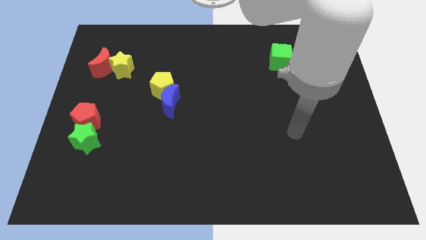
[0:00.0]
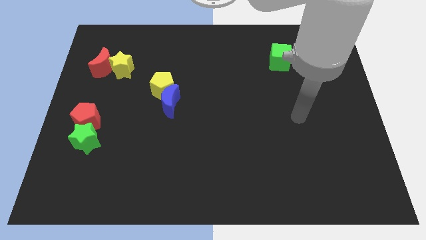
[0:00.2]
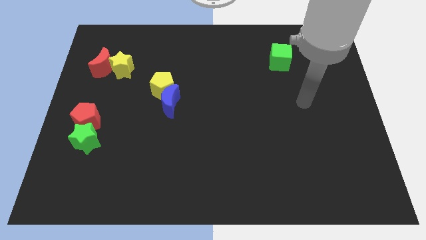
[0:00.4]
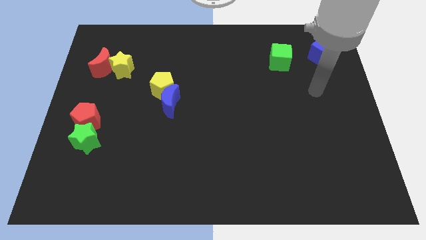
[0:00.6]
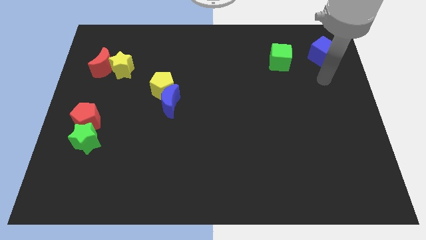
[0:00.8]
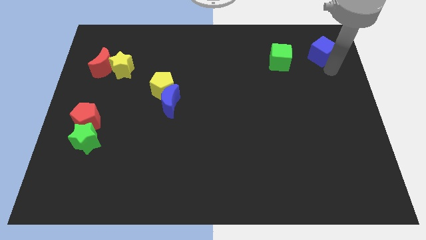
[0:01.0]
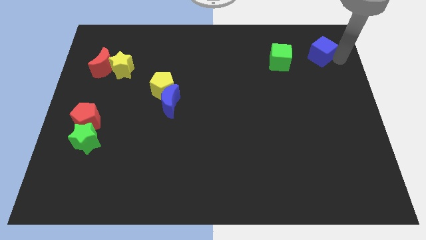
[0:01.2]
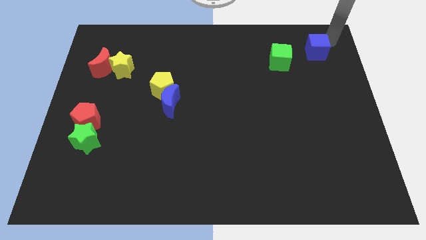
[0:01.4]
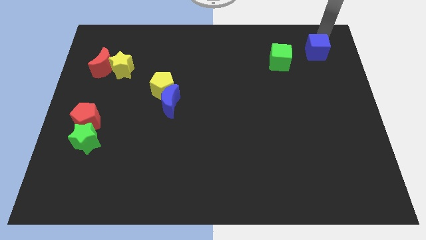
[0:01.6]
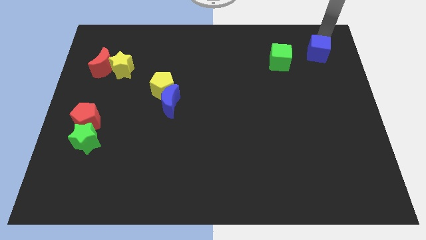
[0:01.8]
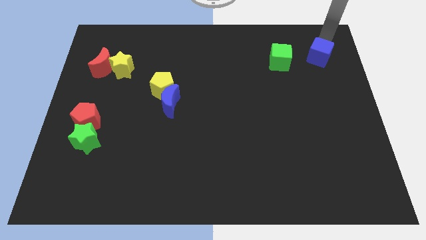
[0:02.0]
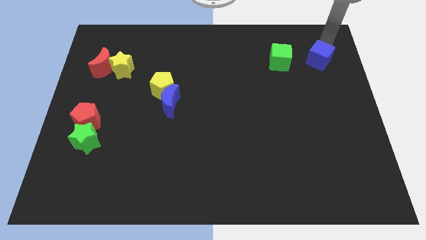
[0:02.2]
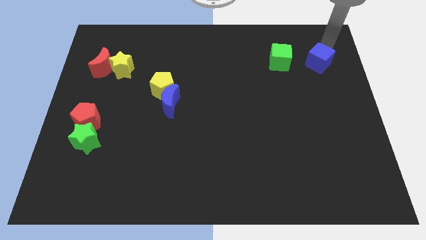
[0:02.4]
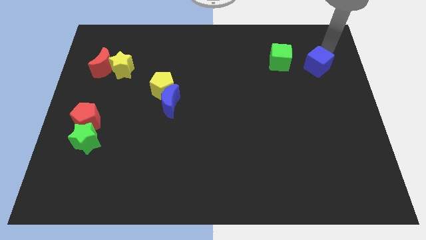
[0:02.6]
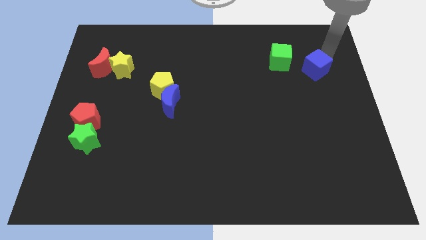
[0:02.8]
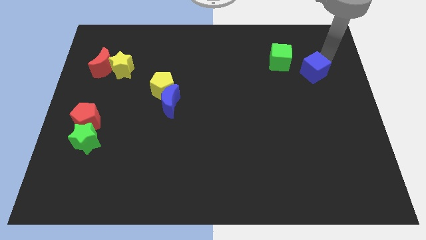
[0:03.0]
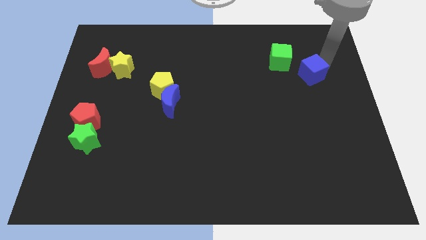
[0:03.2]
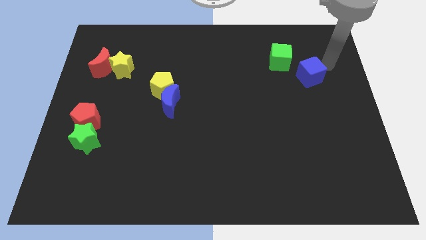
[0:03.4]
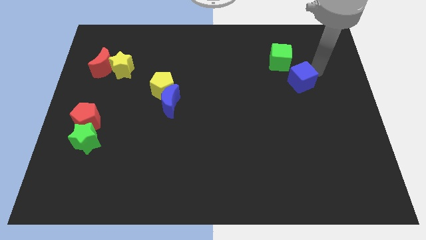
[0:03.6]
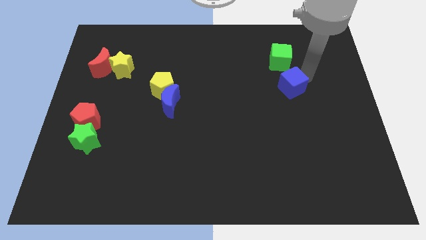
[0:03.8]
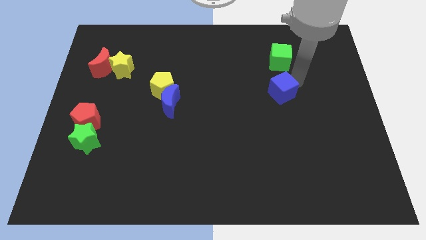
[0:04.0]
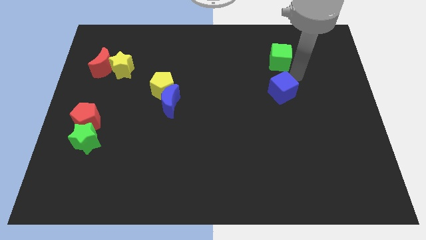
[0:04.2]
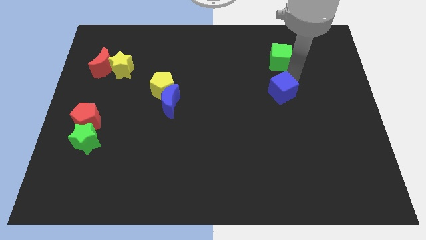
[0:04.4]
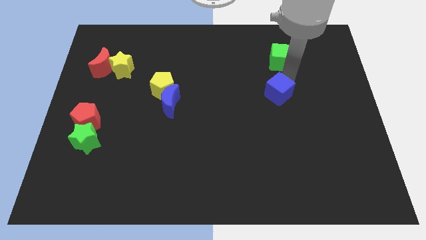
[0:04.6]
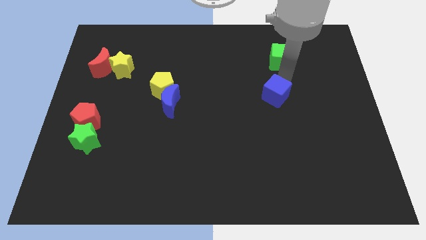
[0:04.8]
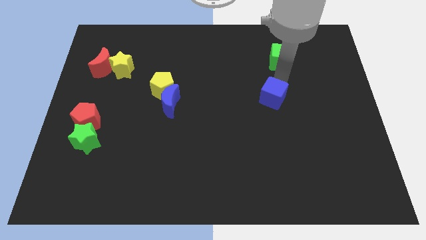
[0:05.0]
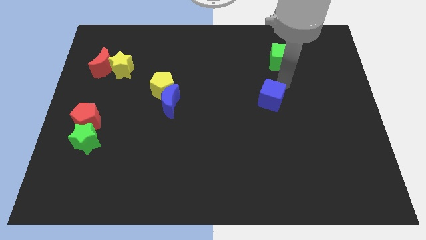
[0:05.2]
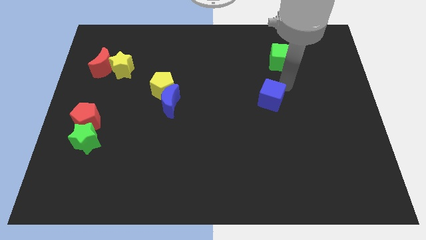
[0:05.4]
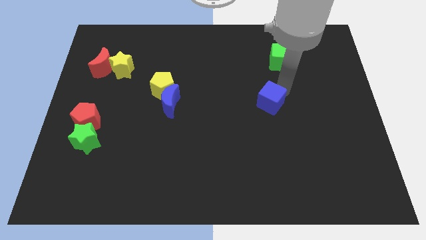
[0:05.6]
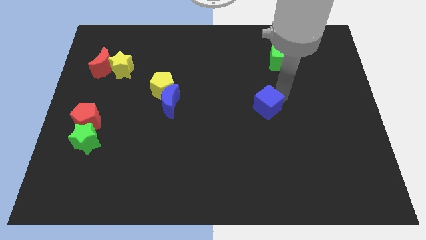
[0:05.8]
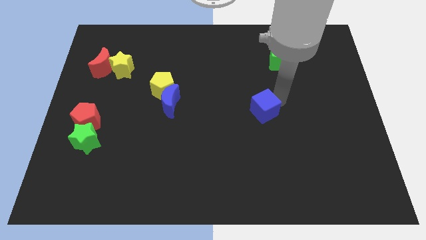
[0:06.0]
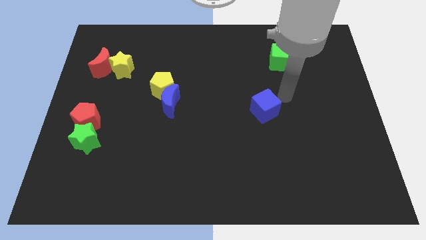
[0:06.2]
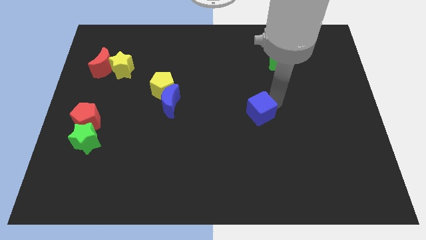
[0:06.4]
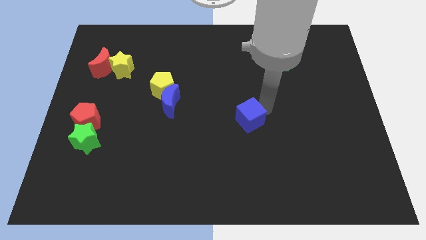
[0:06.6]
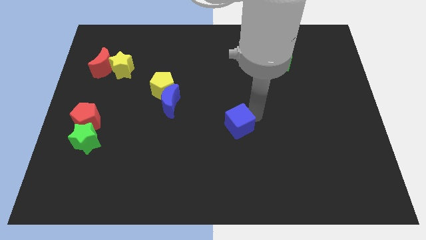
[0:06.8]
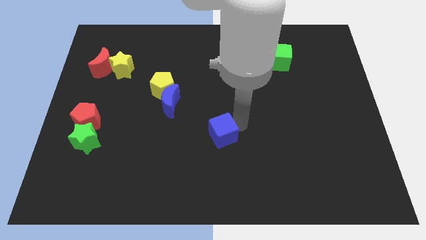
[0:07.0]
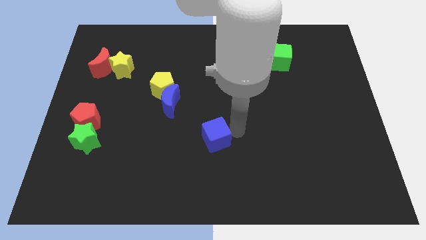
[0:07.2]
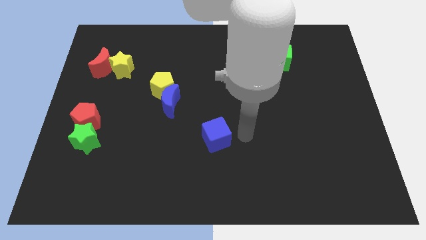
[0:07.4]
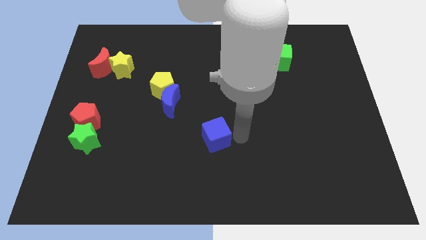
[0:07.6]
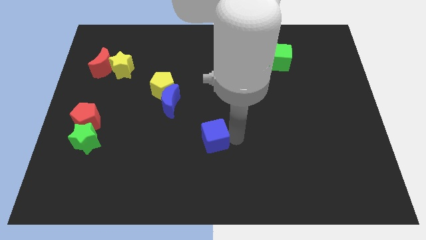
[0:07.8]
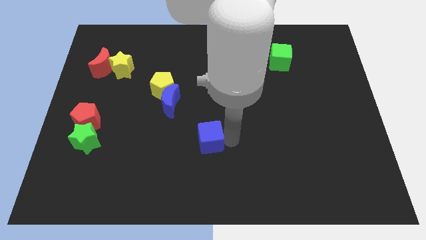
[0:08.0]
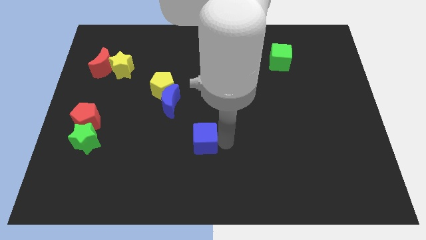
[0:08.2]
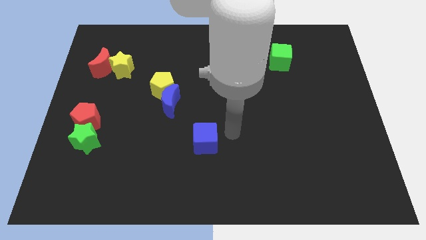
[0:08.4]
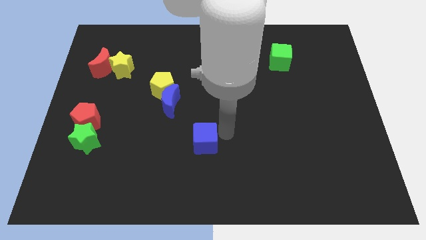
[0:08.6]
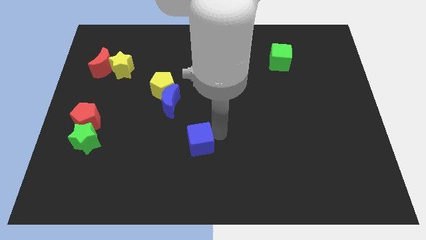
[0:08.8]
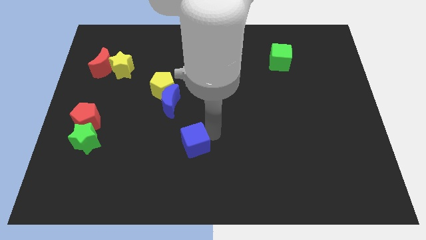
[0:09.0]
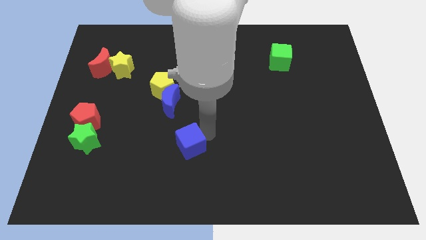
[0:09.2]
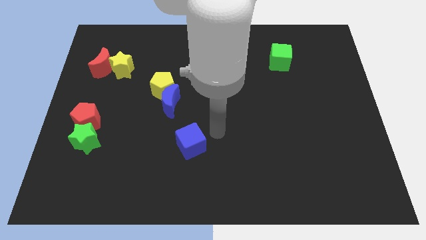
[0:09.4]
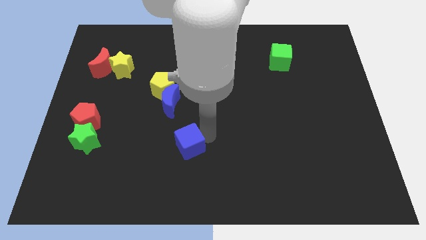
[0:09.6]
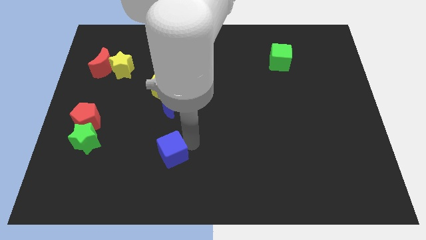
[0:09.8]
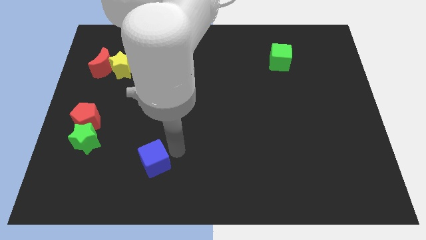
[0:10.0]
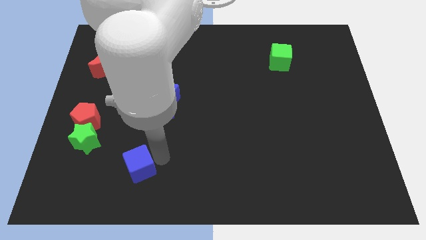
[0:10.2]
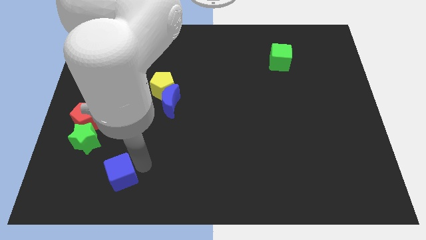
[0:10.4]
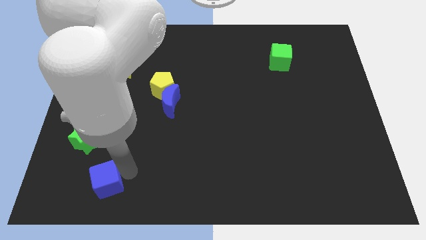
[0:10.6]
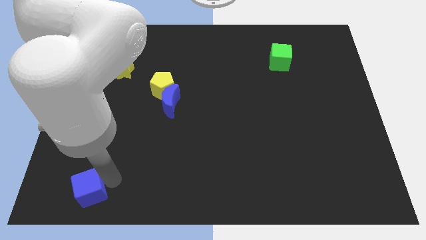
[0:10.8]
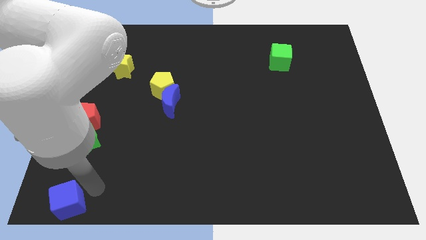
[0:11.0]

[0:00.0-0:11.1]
push the blue cube to the lower left corner
